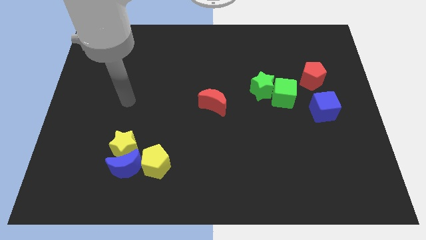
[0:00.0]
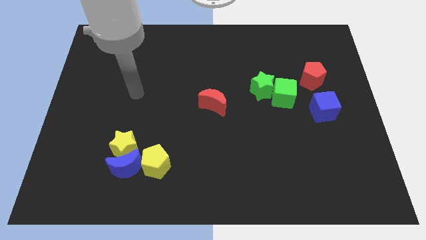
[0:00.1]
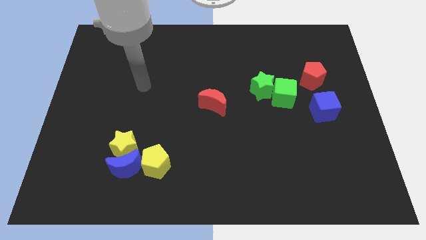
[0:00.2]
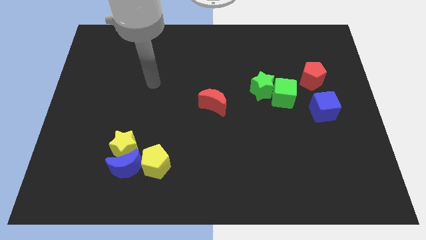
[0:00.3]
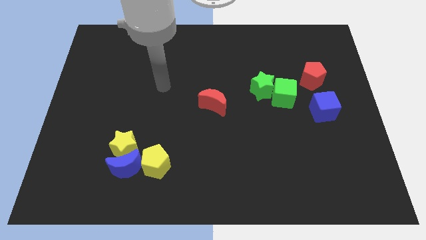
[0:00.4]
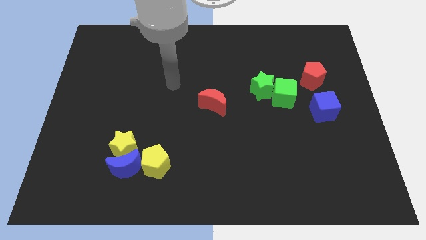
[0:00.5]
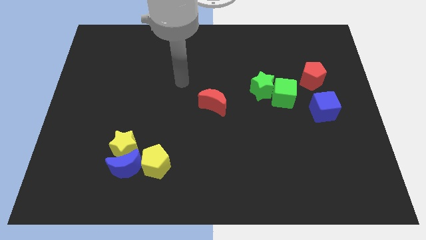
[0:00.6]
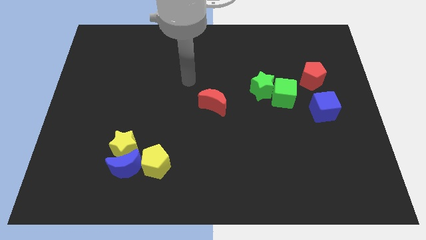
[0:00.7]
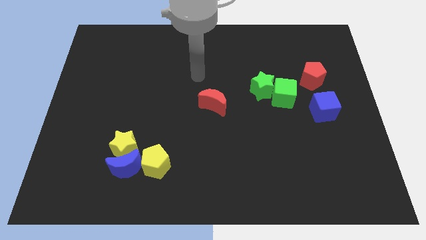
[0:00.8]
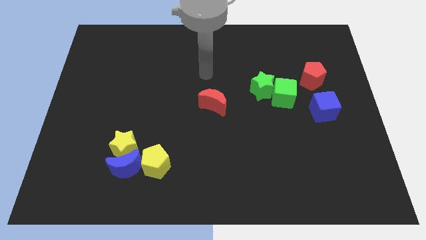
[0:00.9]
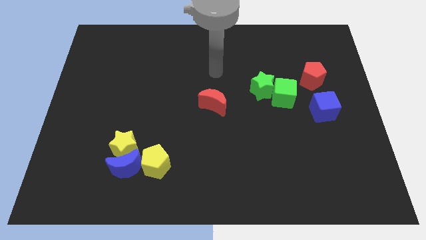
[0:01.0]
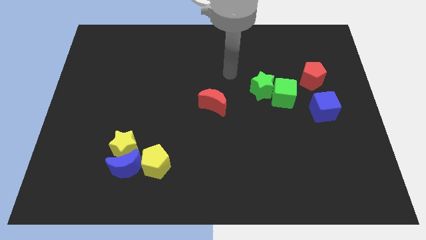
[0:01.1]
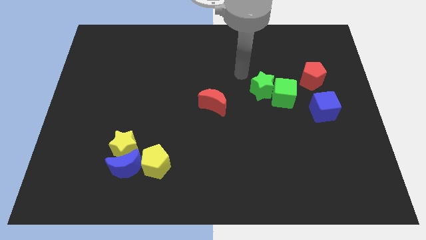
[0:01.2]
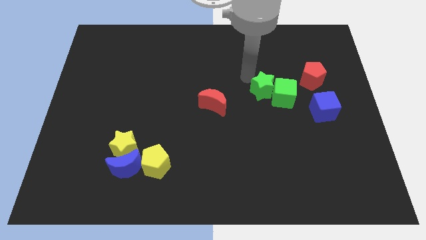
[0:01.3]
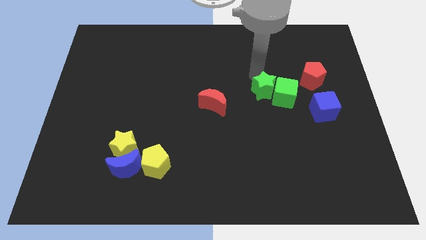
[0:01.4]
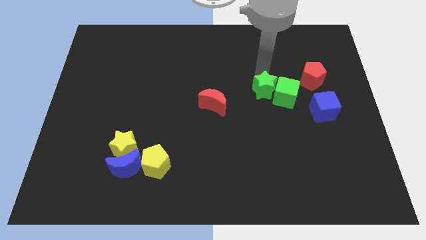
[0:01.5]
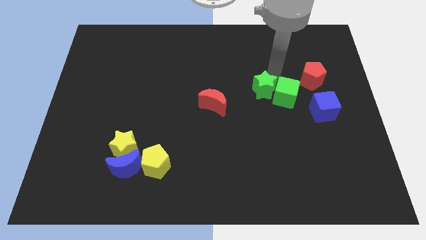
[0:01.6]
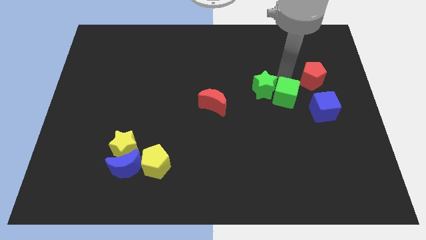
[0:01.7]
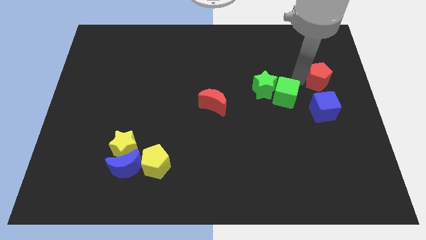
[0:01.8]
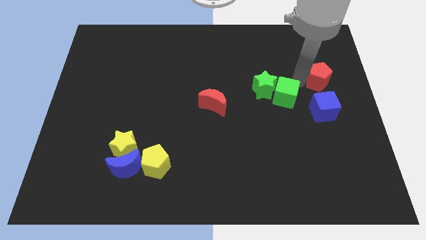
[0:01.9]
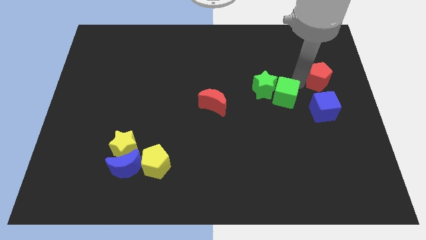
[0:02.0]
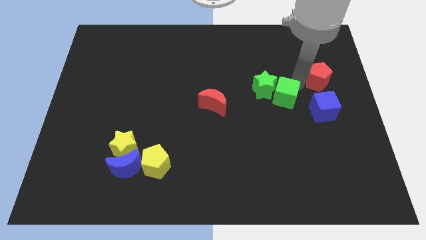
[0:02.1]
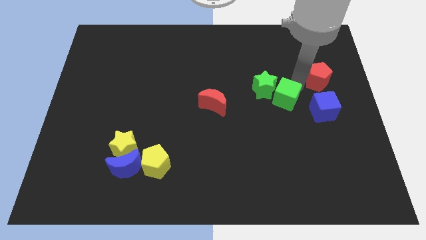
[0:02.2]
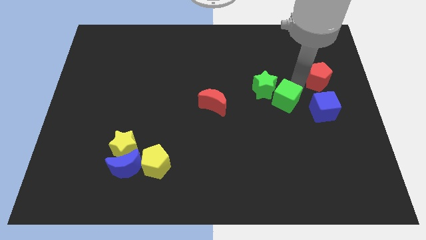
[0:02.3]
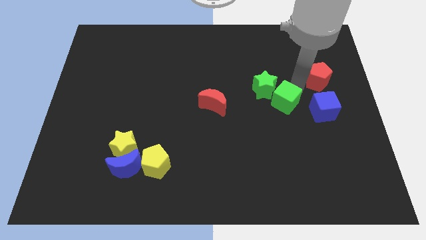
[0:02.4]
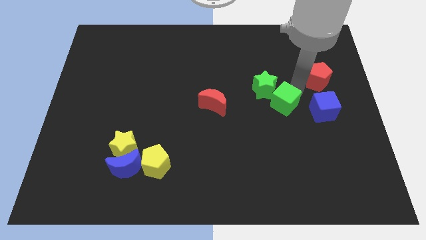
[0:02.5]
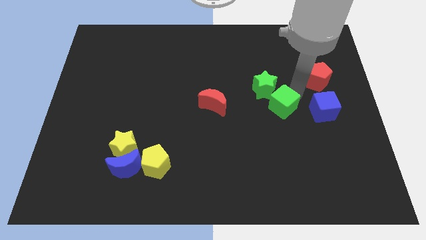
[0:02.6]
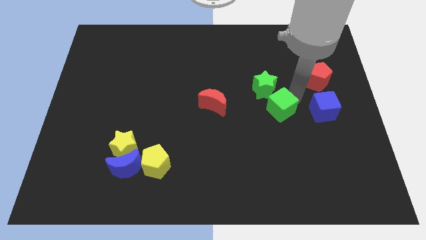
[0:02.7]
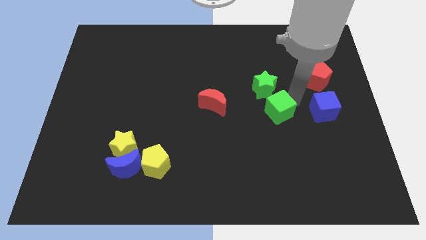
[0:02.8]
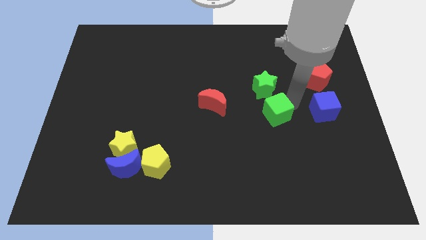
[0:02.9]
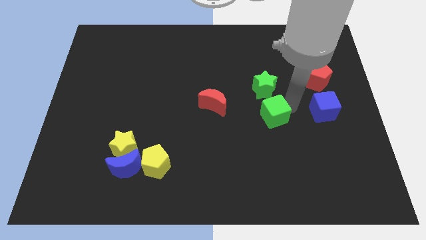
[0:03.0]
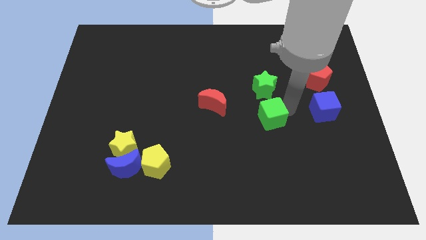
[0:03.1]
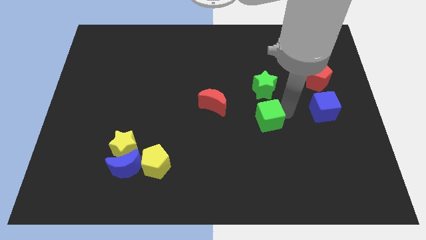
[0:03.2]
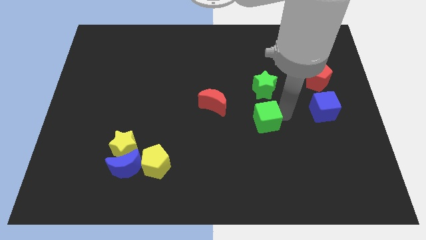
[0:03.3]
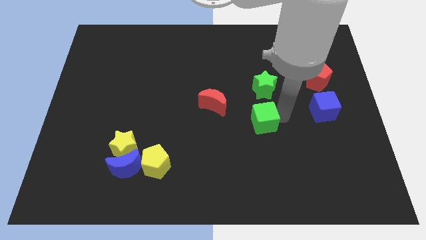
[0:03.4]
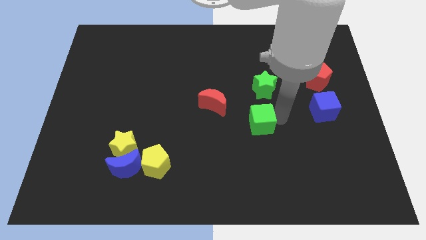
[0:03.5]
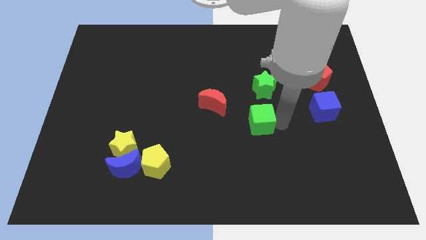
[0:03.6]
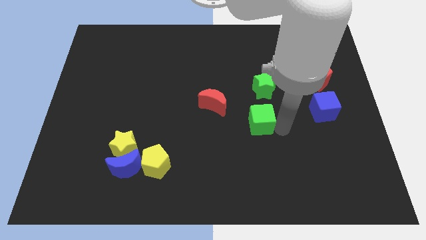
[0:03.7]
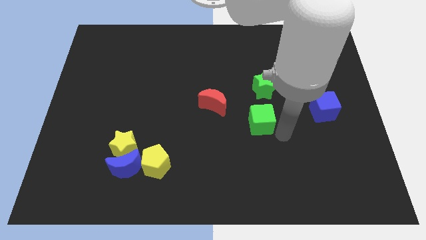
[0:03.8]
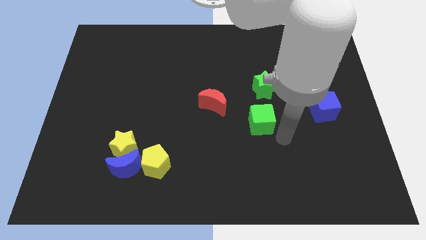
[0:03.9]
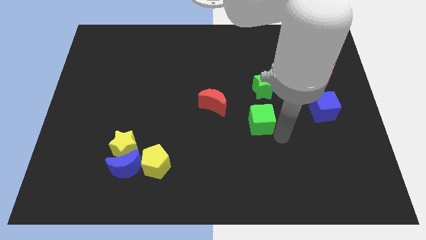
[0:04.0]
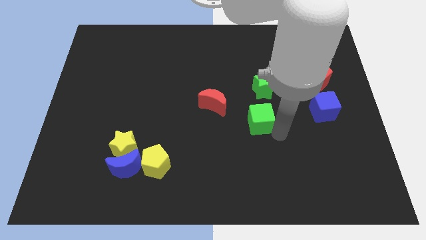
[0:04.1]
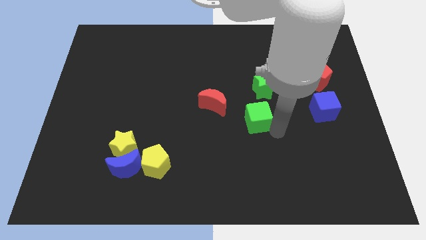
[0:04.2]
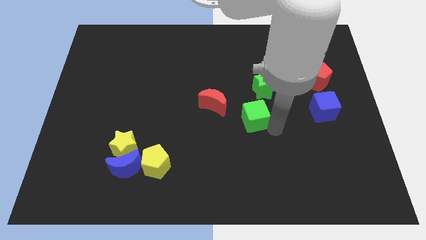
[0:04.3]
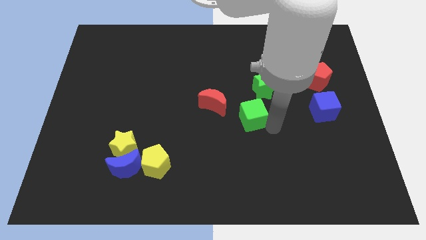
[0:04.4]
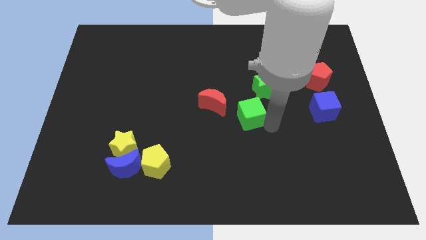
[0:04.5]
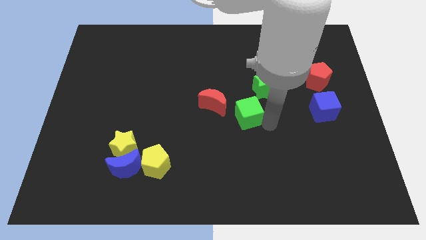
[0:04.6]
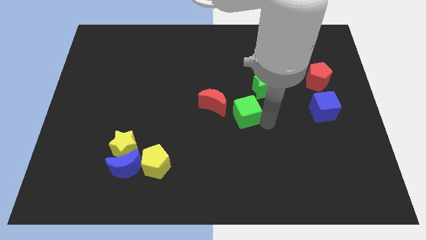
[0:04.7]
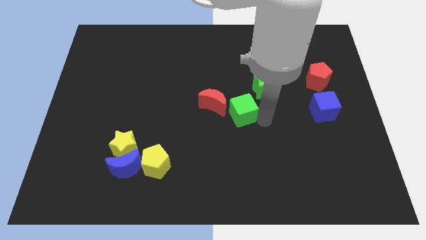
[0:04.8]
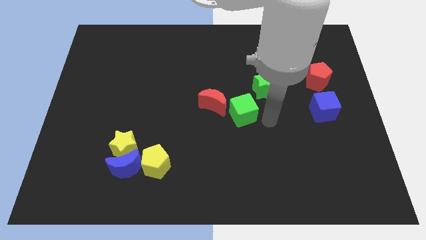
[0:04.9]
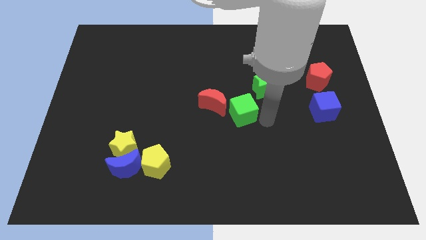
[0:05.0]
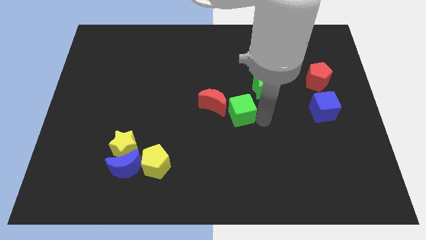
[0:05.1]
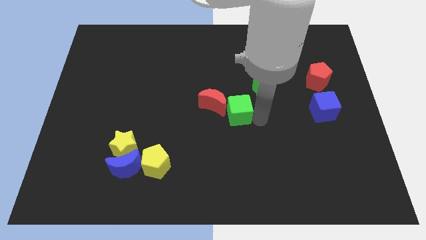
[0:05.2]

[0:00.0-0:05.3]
push the green cube towards the red moon

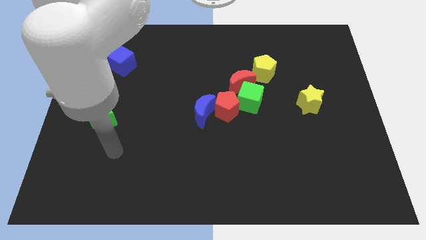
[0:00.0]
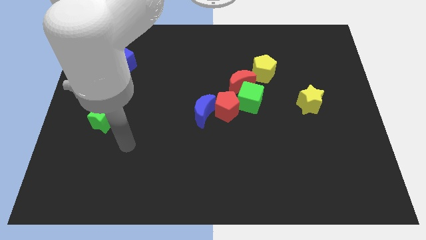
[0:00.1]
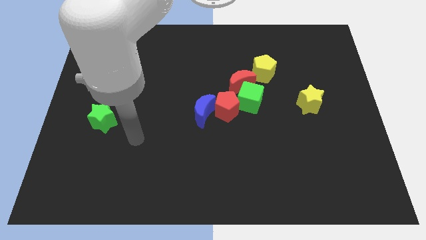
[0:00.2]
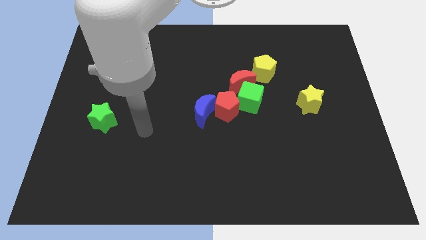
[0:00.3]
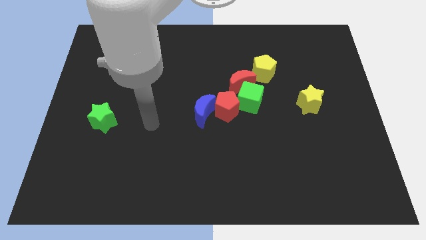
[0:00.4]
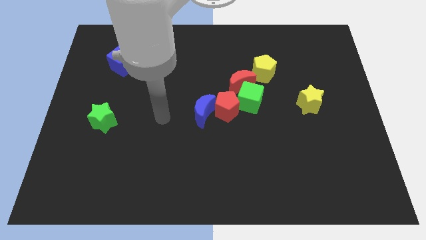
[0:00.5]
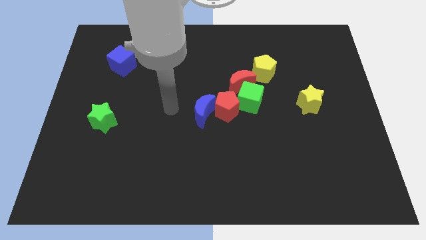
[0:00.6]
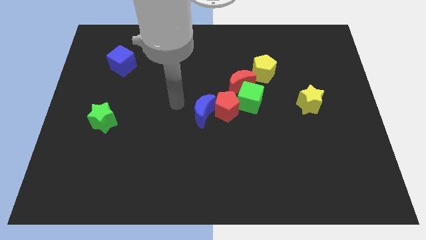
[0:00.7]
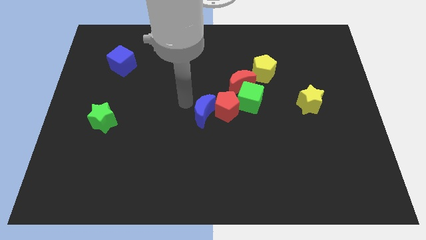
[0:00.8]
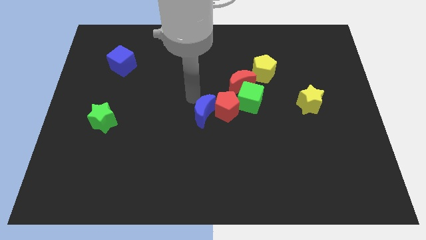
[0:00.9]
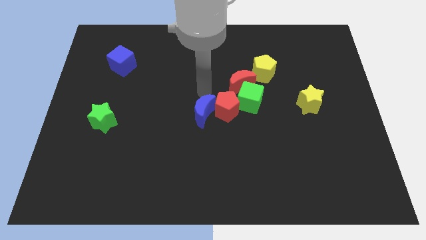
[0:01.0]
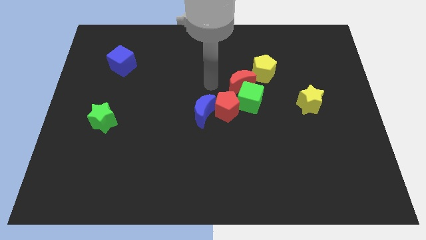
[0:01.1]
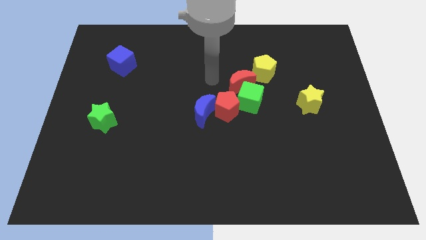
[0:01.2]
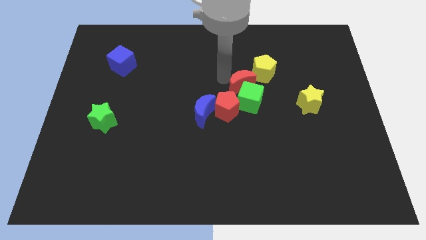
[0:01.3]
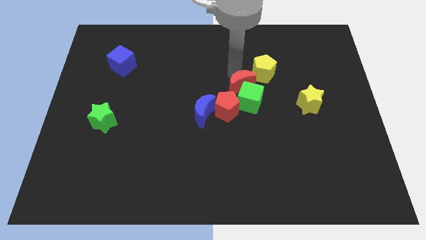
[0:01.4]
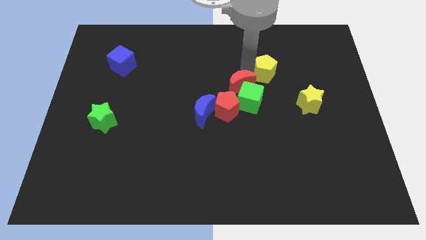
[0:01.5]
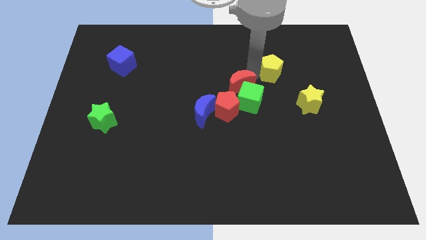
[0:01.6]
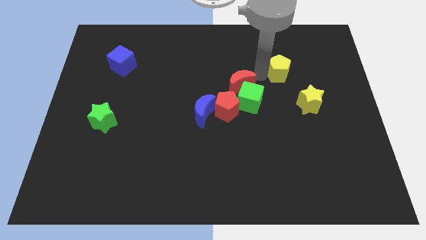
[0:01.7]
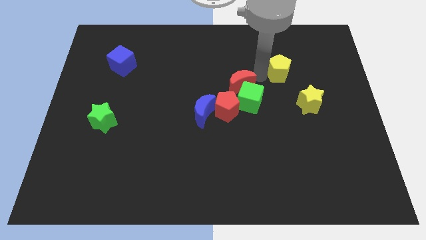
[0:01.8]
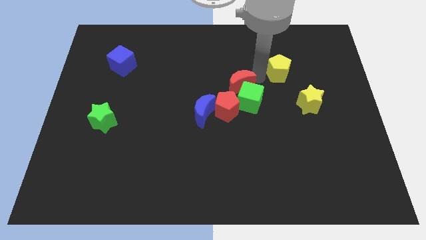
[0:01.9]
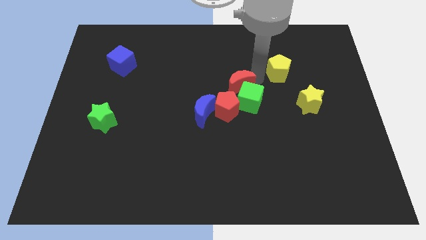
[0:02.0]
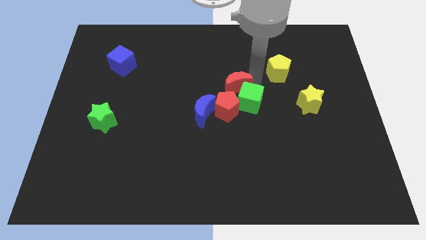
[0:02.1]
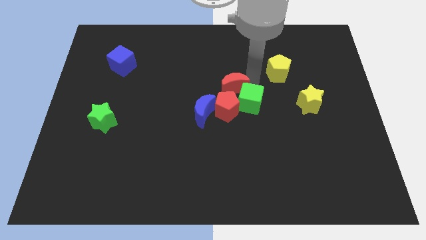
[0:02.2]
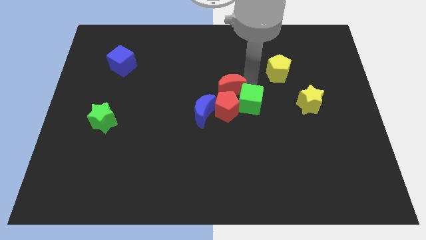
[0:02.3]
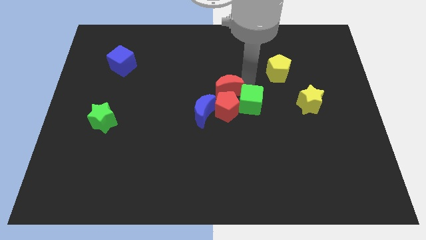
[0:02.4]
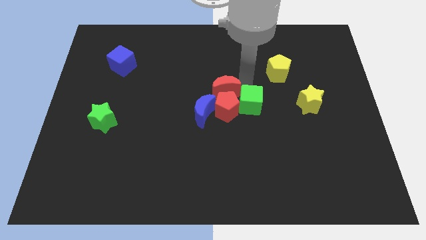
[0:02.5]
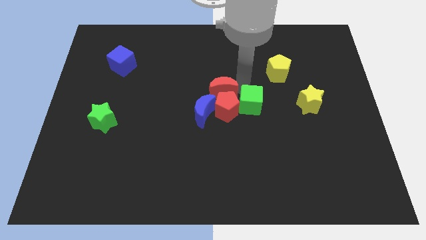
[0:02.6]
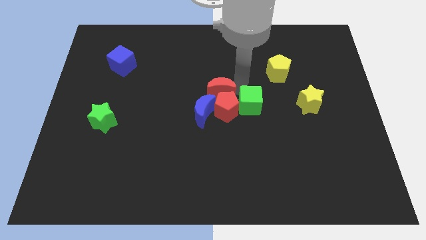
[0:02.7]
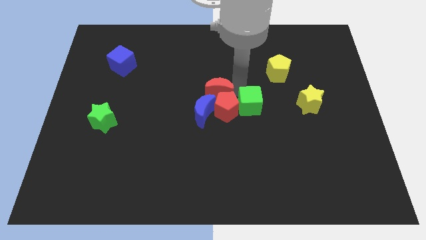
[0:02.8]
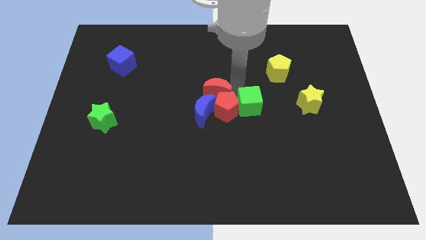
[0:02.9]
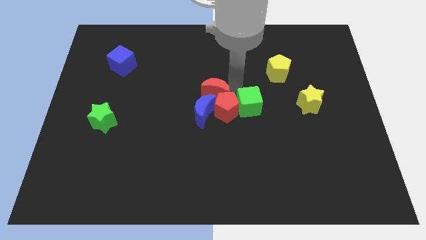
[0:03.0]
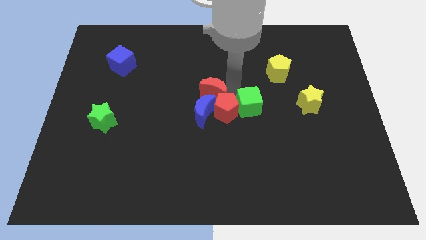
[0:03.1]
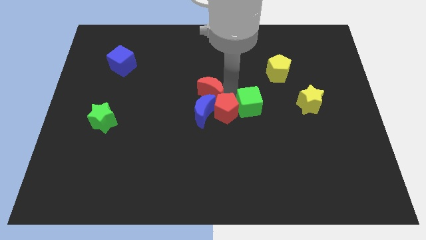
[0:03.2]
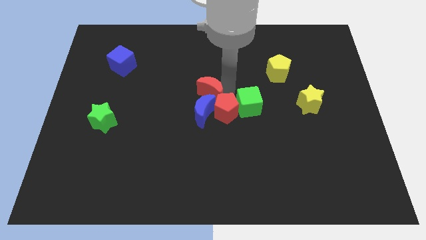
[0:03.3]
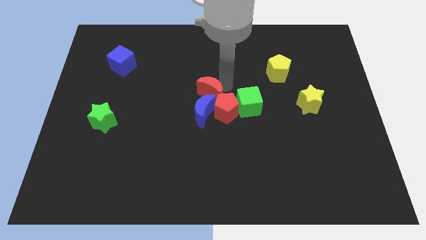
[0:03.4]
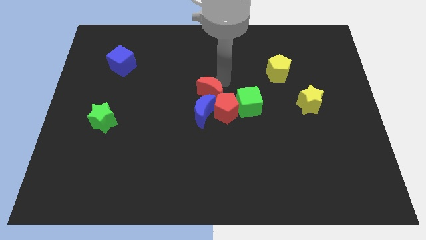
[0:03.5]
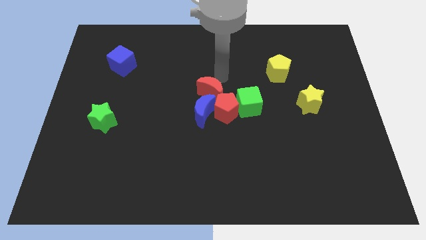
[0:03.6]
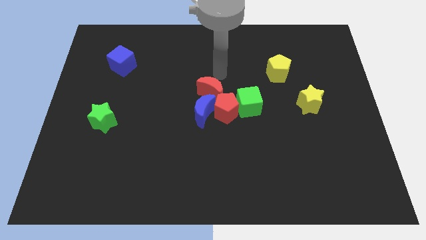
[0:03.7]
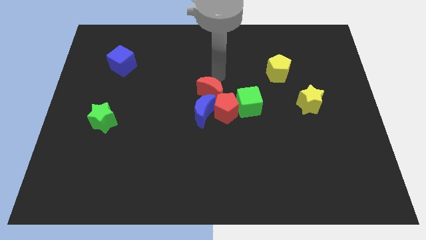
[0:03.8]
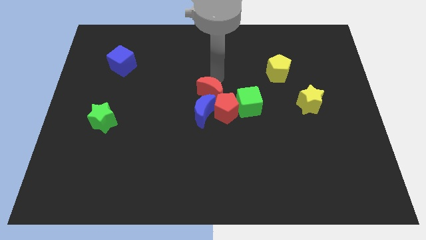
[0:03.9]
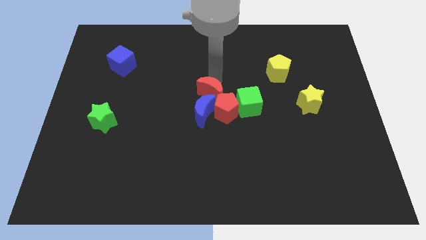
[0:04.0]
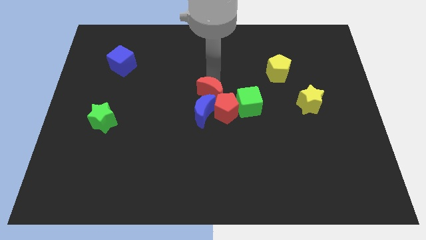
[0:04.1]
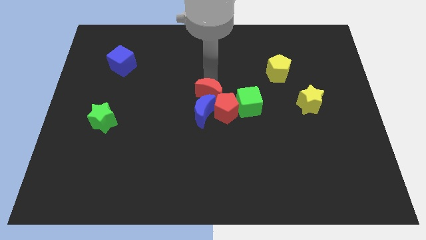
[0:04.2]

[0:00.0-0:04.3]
put the red moon towards the blue moon
